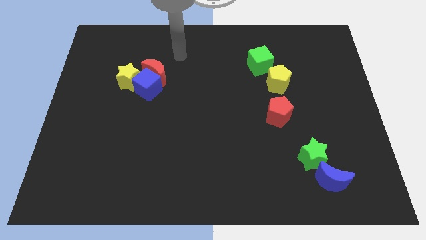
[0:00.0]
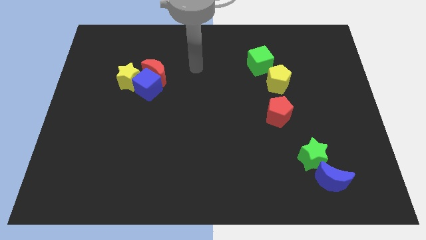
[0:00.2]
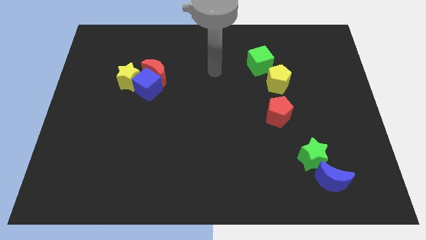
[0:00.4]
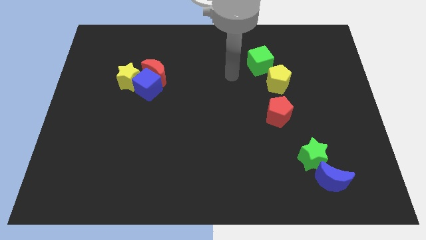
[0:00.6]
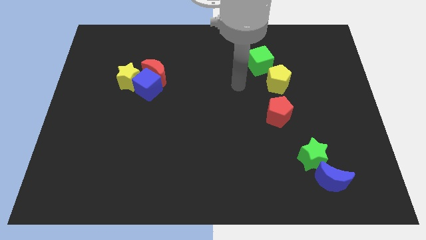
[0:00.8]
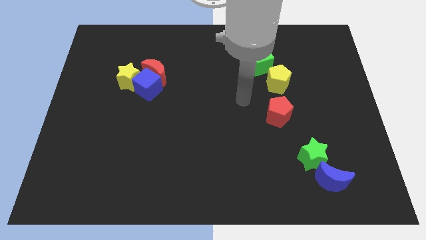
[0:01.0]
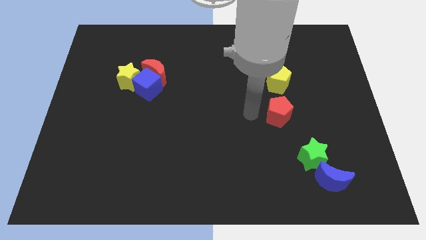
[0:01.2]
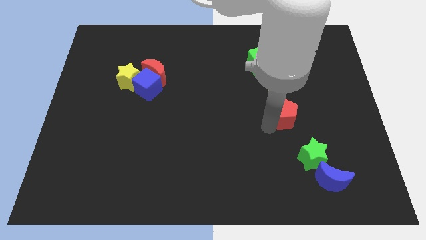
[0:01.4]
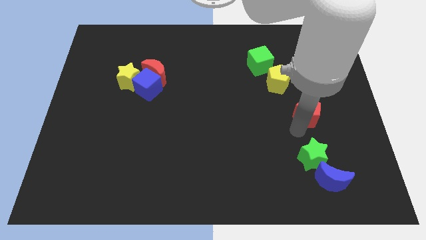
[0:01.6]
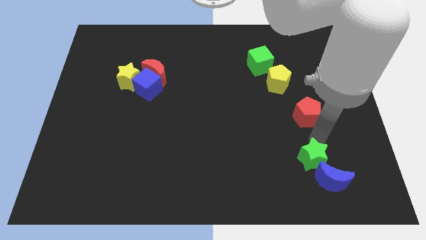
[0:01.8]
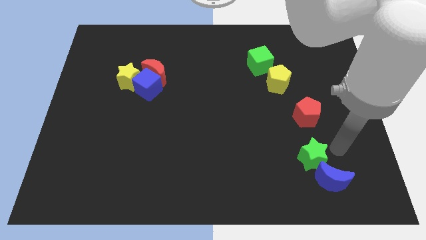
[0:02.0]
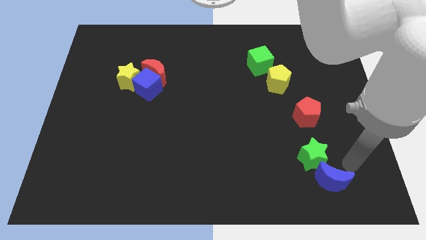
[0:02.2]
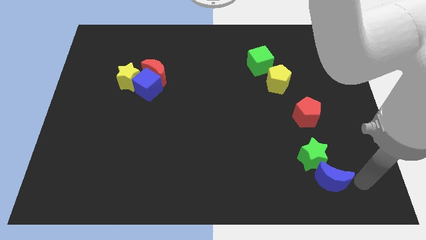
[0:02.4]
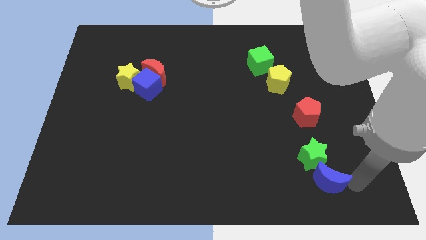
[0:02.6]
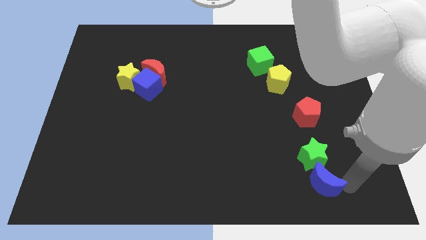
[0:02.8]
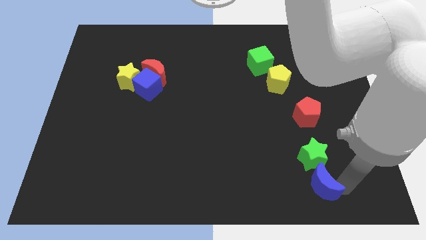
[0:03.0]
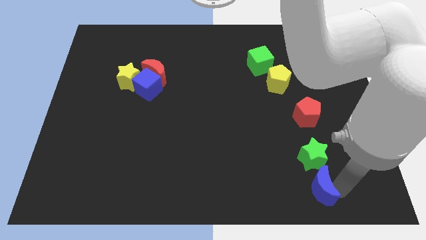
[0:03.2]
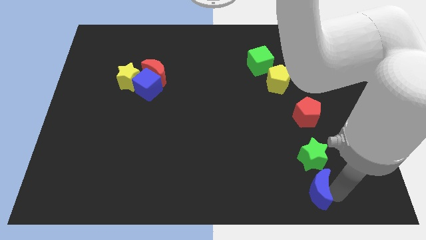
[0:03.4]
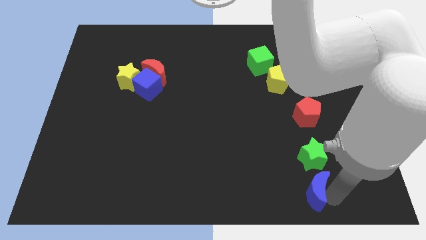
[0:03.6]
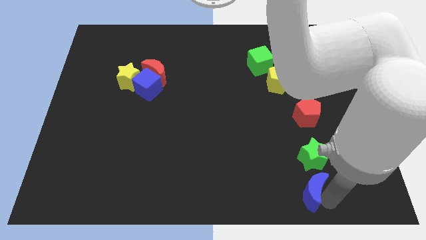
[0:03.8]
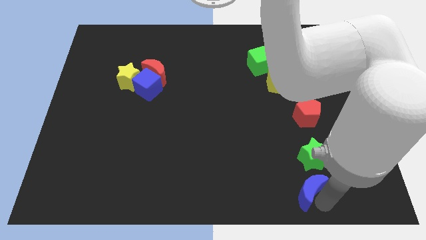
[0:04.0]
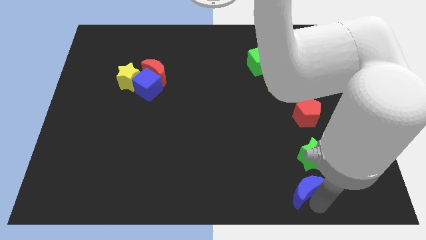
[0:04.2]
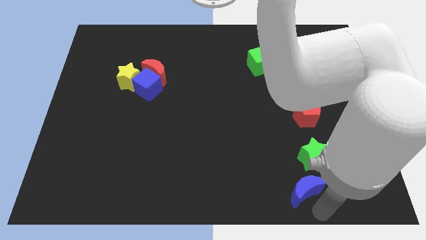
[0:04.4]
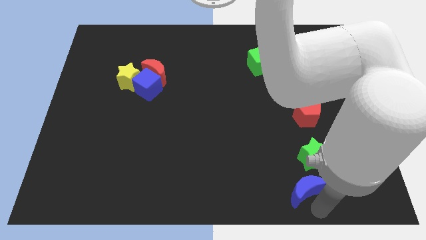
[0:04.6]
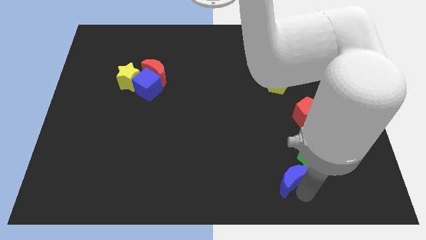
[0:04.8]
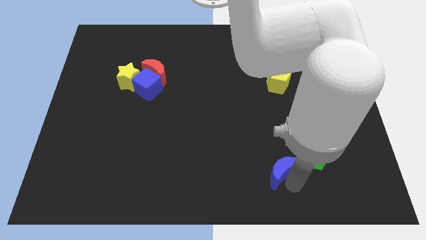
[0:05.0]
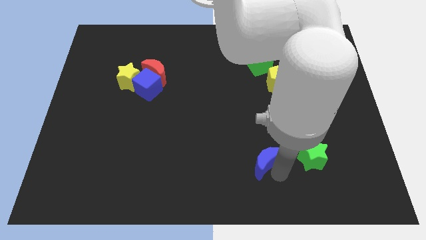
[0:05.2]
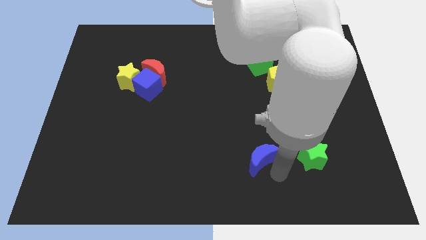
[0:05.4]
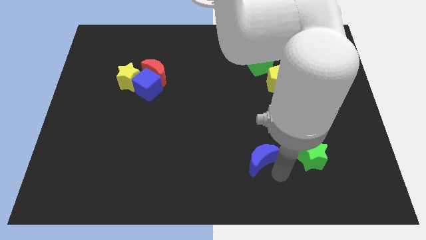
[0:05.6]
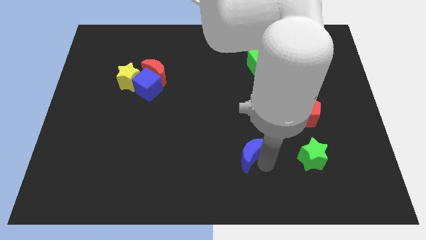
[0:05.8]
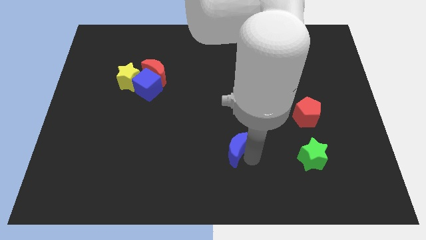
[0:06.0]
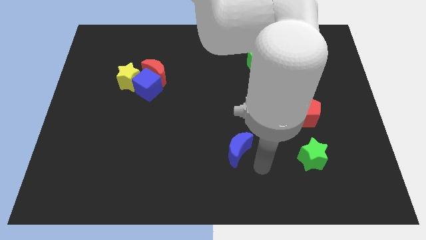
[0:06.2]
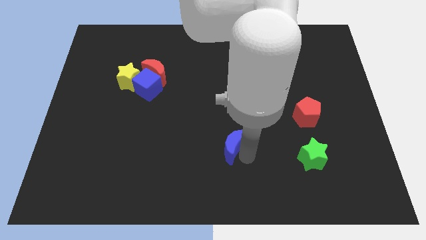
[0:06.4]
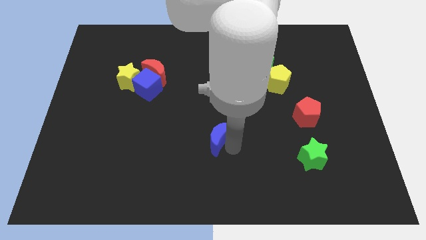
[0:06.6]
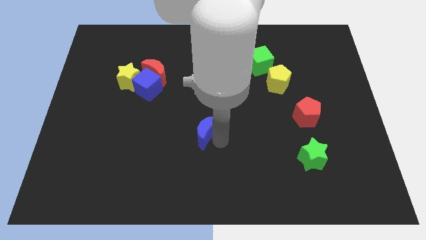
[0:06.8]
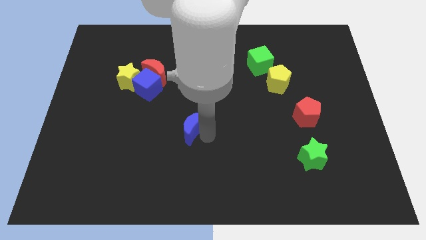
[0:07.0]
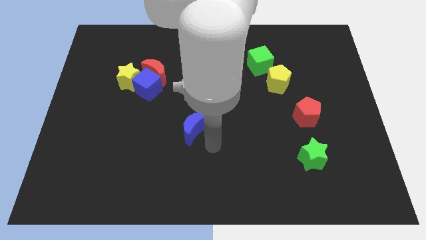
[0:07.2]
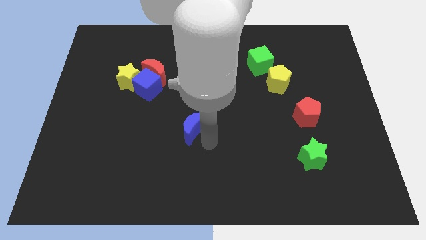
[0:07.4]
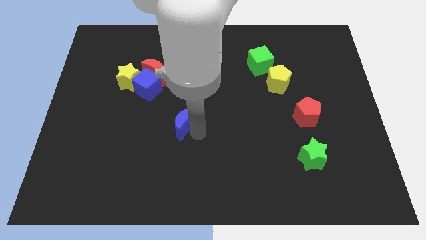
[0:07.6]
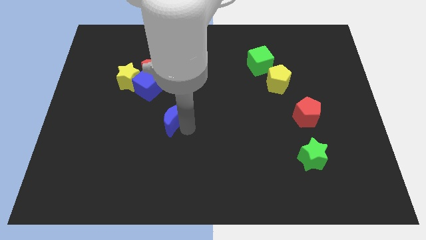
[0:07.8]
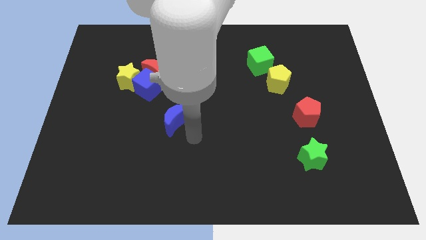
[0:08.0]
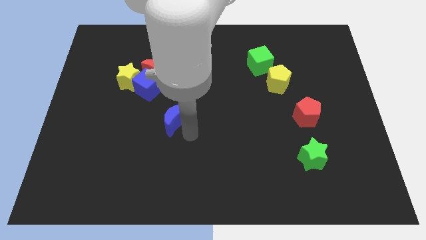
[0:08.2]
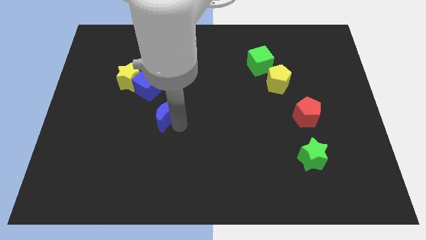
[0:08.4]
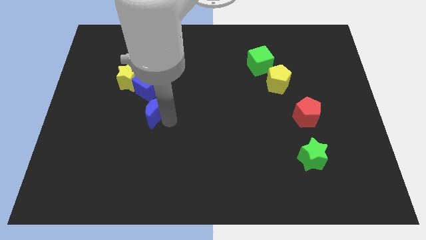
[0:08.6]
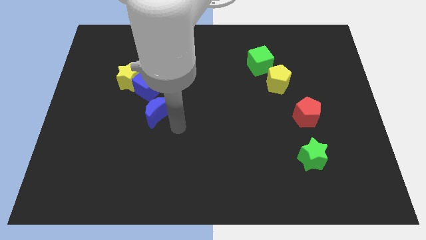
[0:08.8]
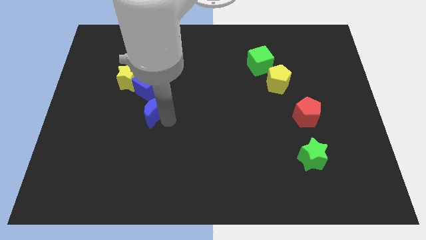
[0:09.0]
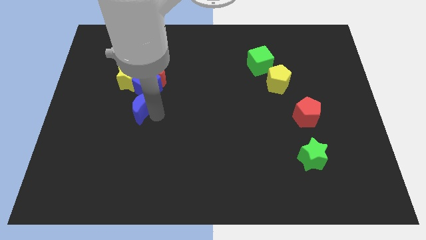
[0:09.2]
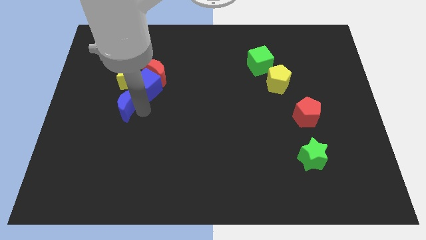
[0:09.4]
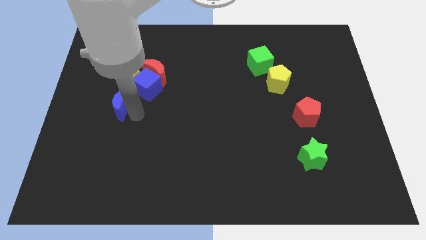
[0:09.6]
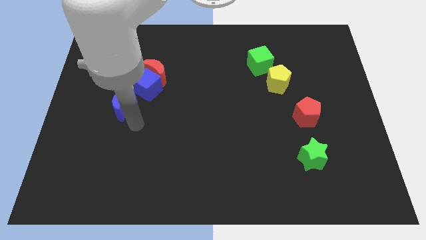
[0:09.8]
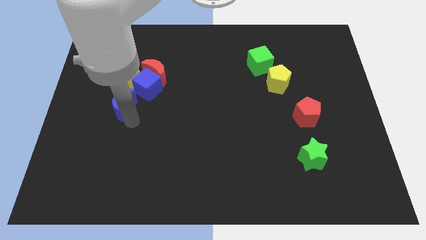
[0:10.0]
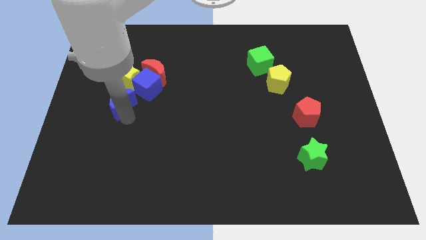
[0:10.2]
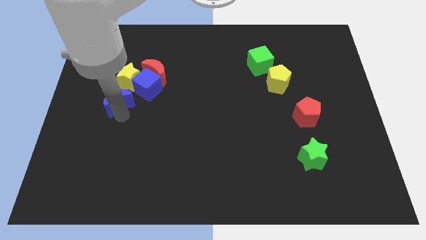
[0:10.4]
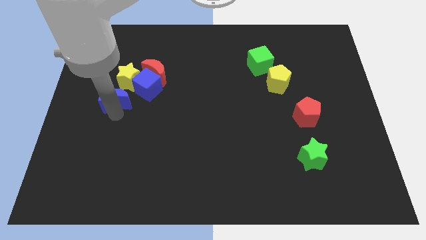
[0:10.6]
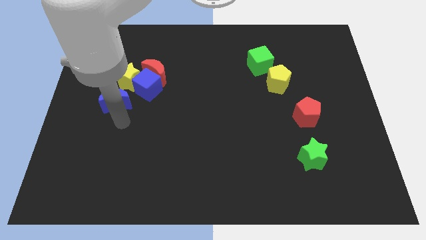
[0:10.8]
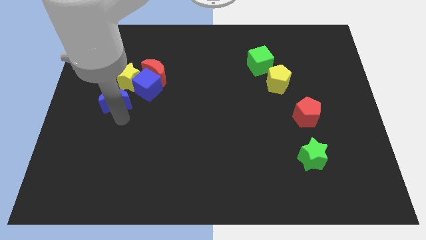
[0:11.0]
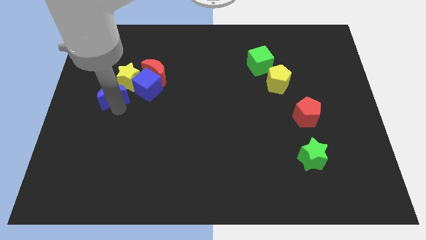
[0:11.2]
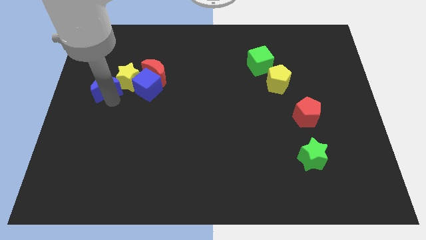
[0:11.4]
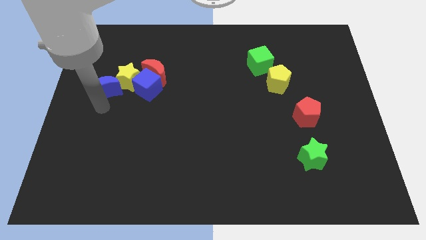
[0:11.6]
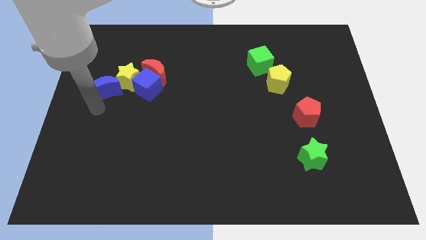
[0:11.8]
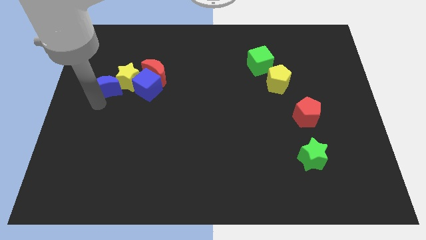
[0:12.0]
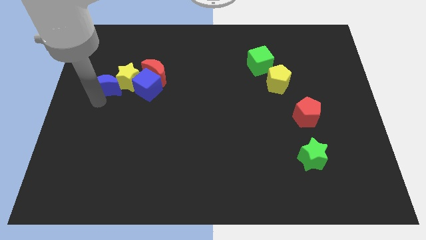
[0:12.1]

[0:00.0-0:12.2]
put the blue moon to the left of the red moon

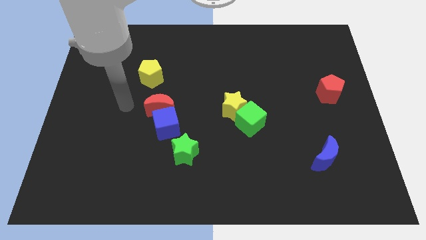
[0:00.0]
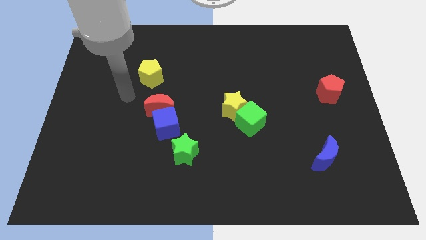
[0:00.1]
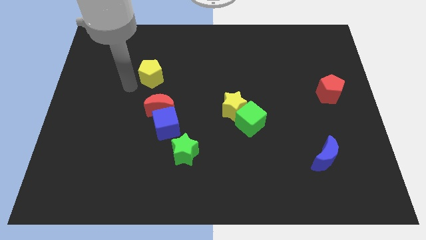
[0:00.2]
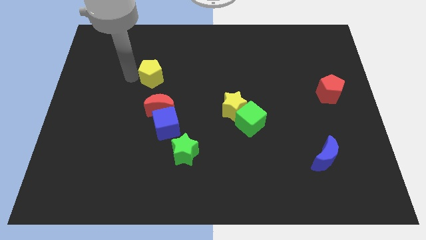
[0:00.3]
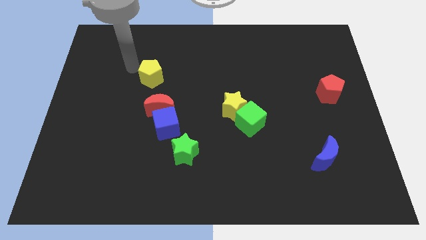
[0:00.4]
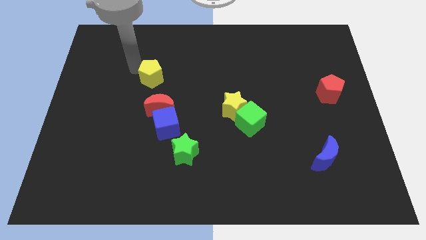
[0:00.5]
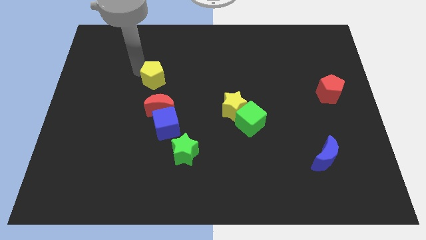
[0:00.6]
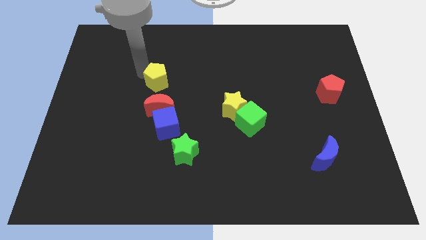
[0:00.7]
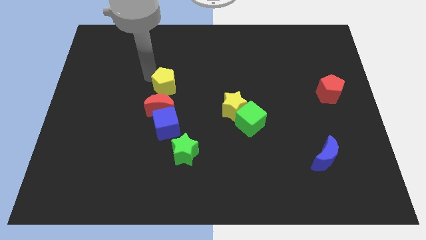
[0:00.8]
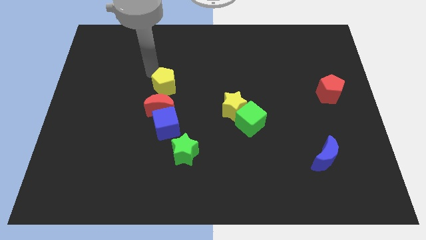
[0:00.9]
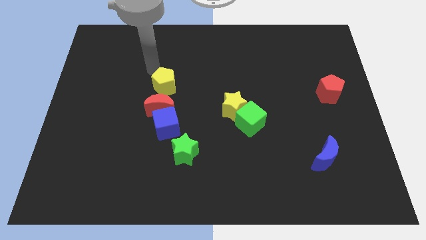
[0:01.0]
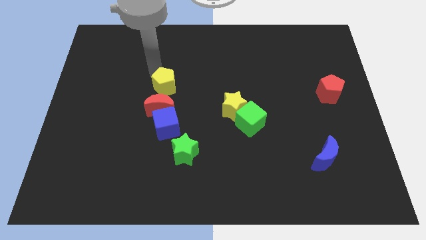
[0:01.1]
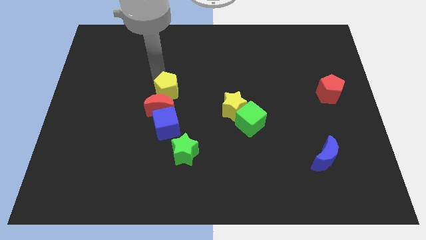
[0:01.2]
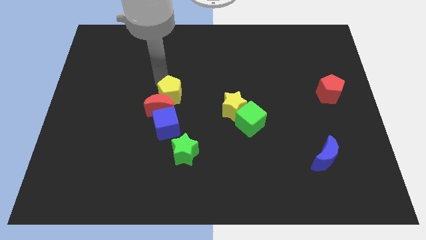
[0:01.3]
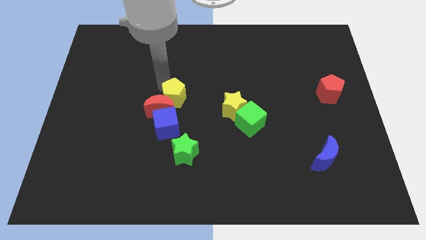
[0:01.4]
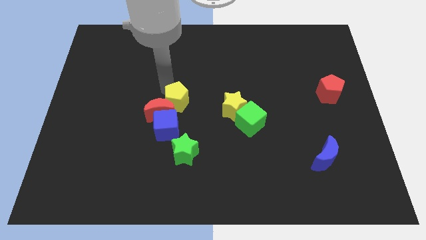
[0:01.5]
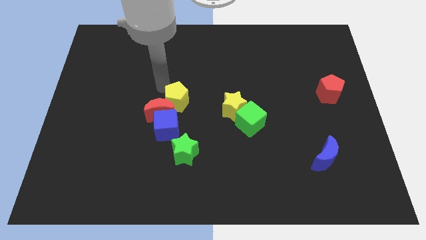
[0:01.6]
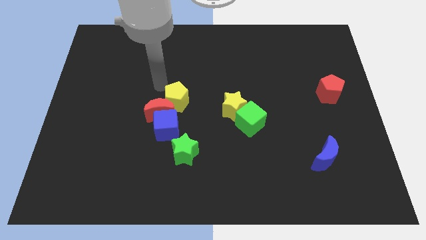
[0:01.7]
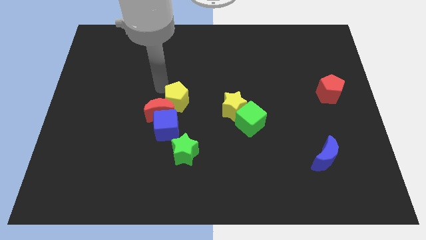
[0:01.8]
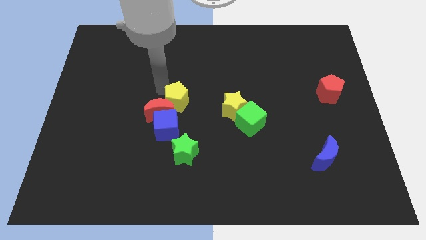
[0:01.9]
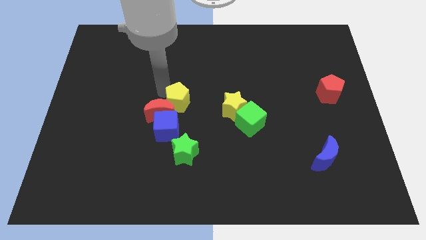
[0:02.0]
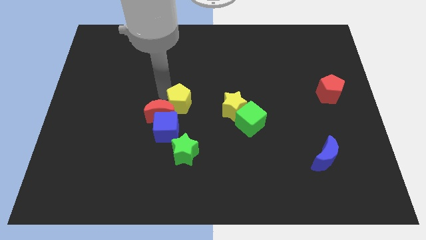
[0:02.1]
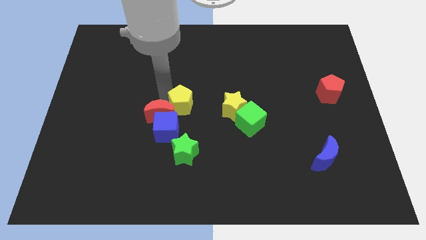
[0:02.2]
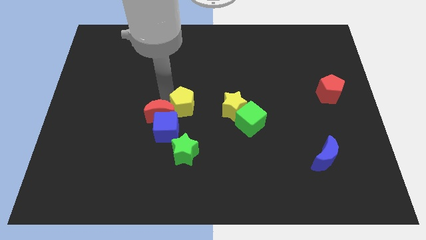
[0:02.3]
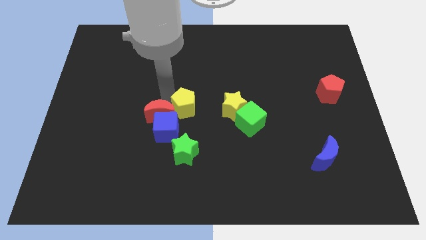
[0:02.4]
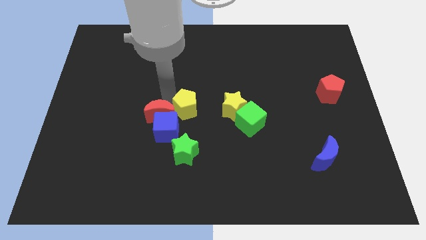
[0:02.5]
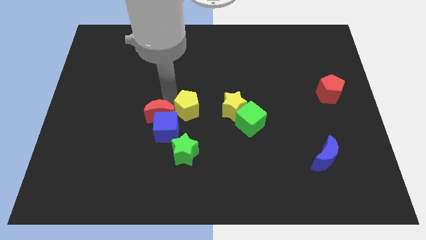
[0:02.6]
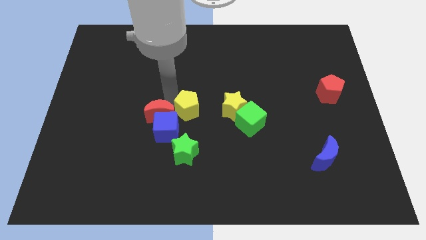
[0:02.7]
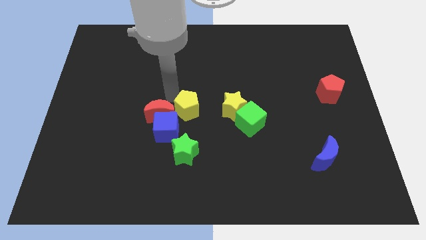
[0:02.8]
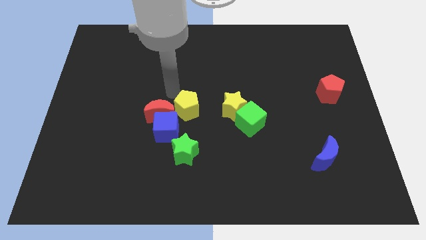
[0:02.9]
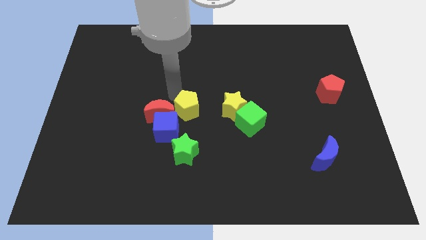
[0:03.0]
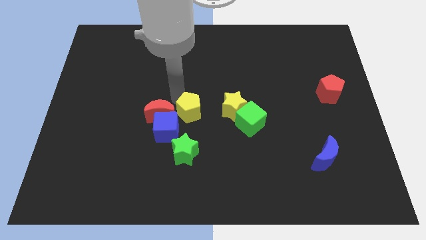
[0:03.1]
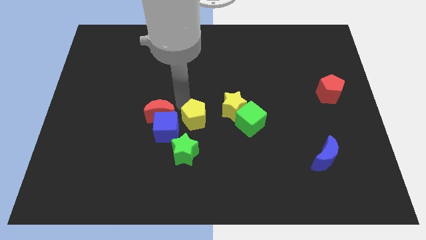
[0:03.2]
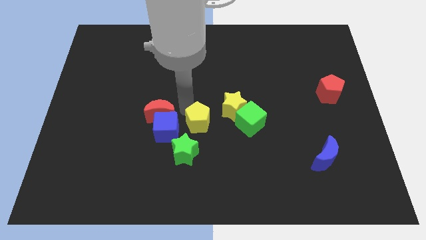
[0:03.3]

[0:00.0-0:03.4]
slide the yellow pentagon to the top right side of the green star
